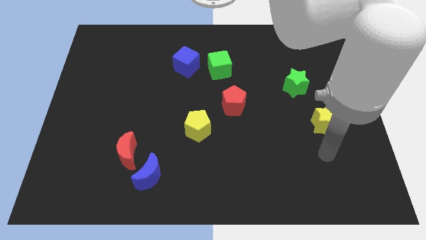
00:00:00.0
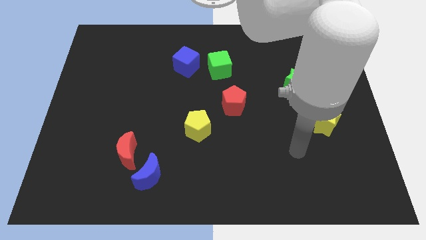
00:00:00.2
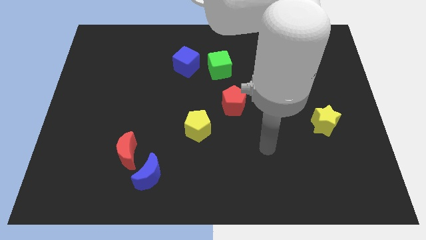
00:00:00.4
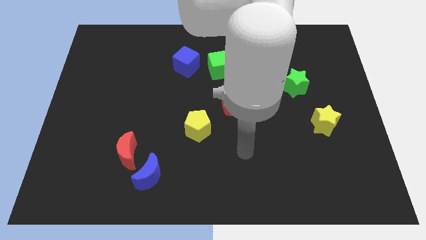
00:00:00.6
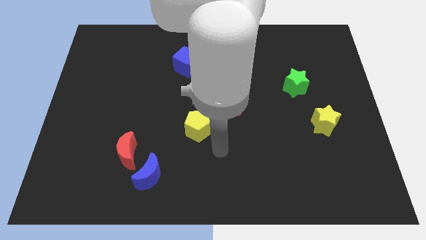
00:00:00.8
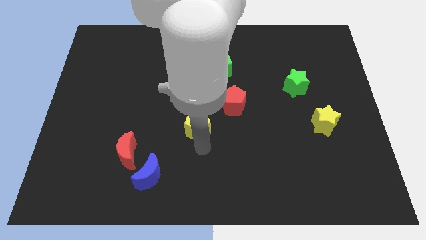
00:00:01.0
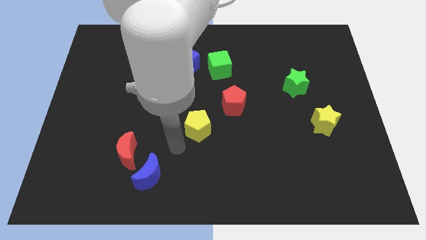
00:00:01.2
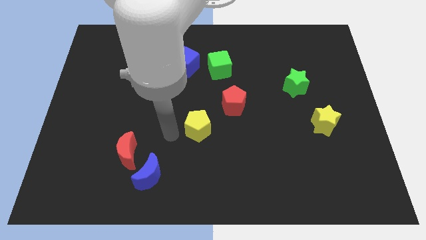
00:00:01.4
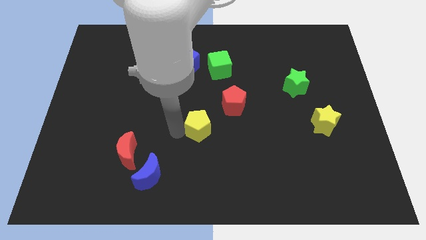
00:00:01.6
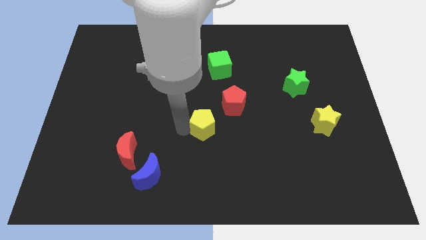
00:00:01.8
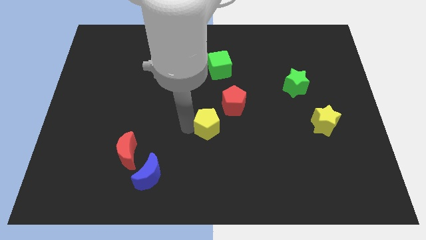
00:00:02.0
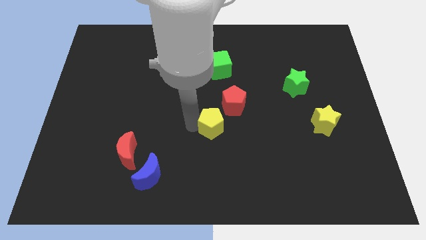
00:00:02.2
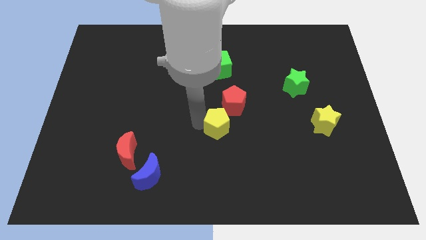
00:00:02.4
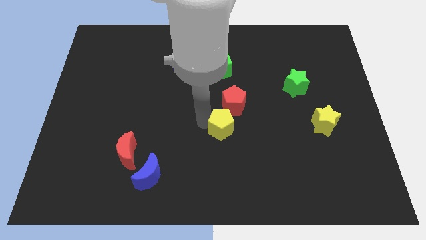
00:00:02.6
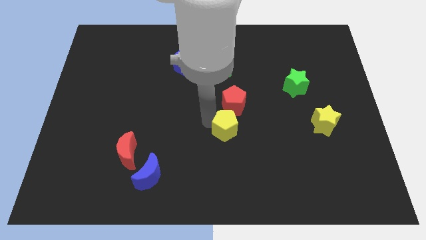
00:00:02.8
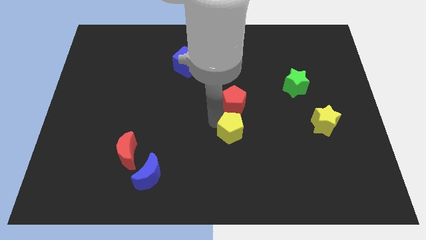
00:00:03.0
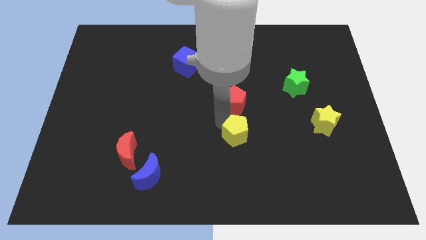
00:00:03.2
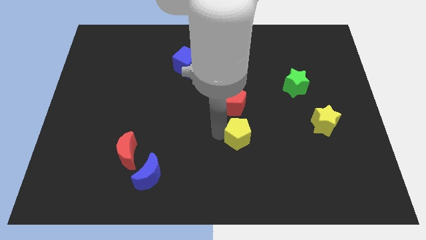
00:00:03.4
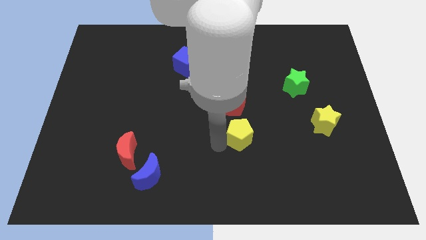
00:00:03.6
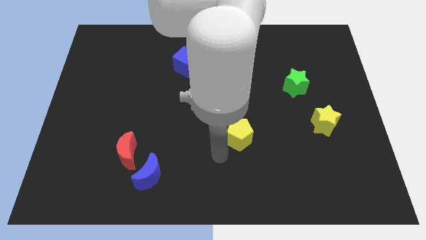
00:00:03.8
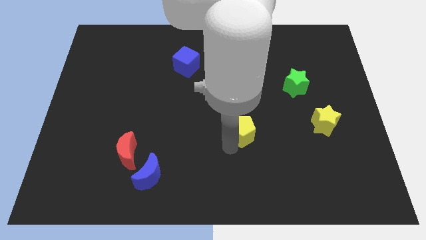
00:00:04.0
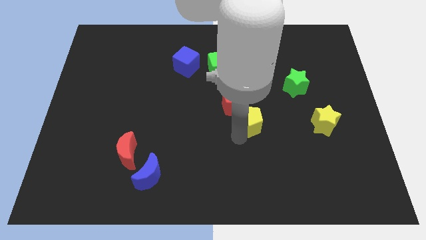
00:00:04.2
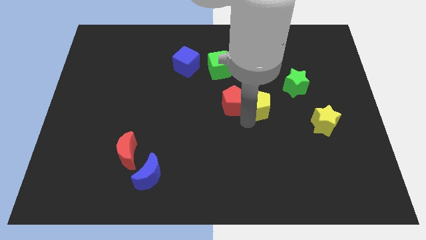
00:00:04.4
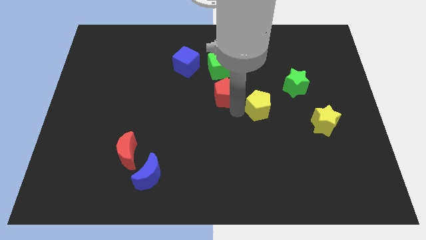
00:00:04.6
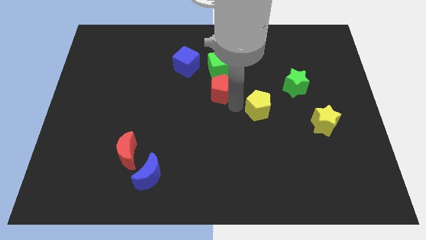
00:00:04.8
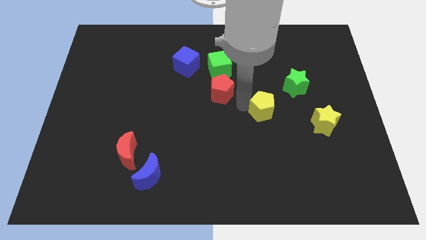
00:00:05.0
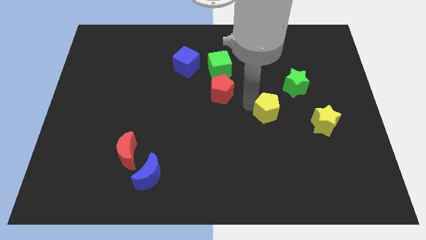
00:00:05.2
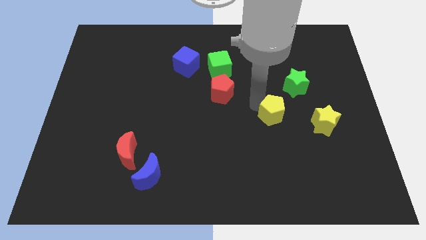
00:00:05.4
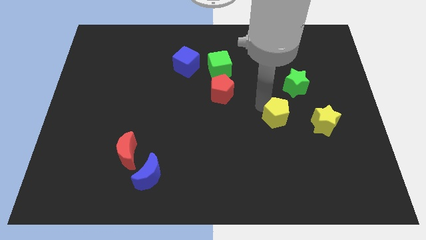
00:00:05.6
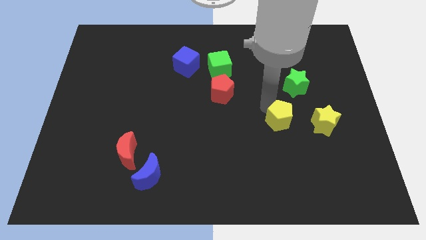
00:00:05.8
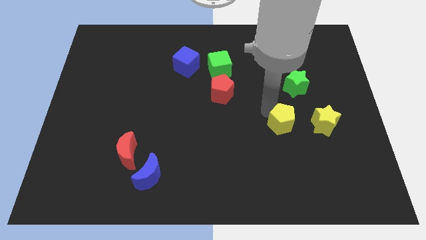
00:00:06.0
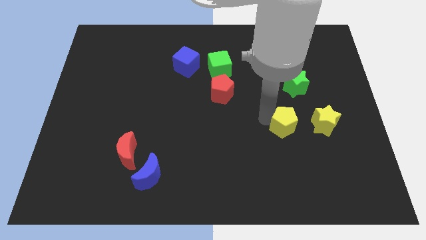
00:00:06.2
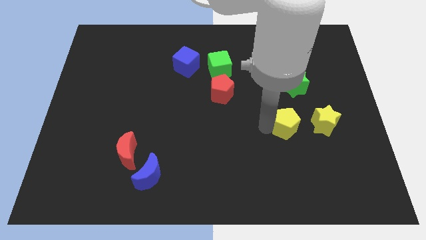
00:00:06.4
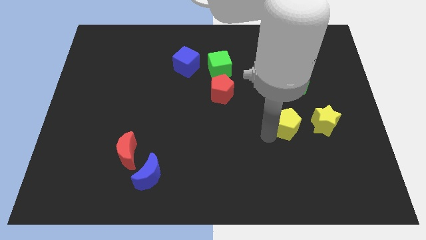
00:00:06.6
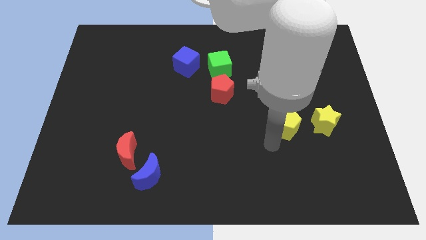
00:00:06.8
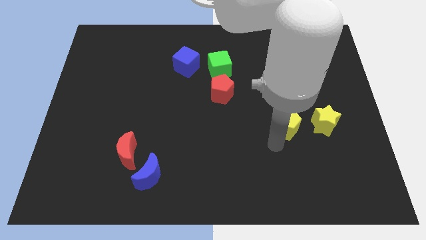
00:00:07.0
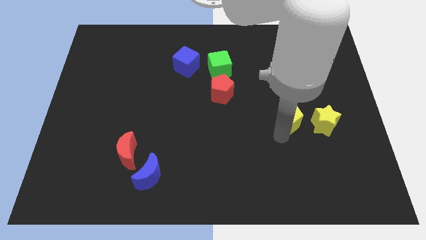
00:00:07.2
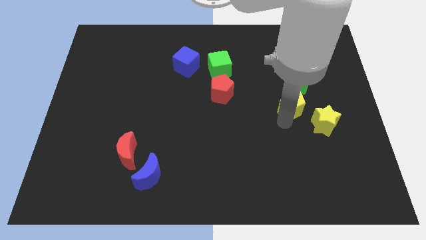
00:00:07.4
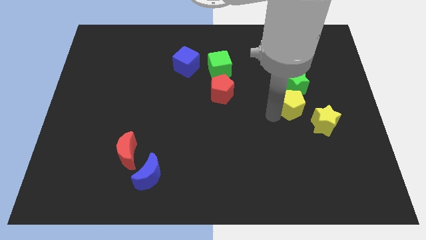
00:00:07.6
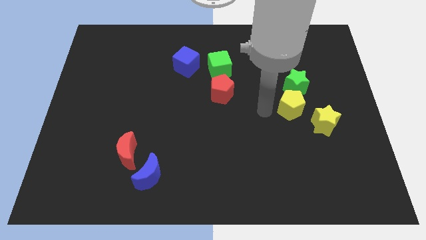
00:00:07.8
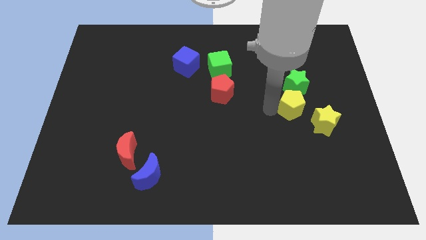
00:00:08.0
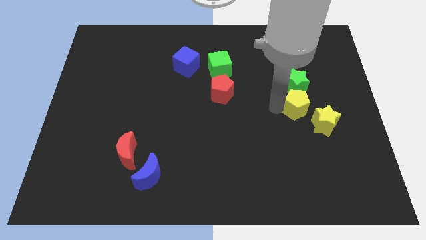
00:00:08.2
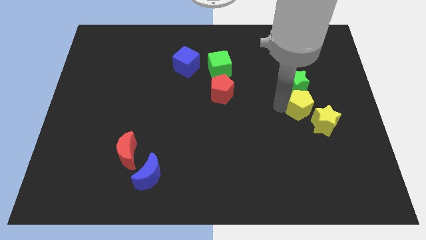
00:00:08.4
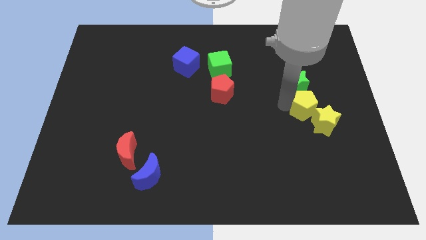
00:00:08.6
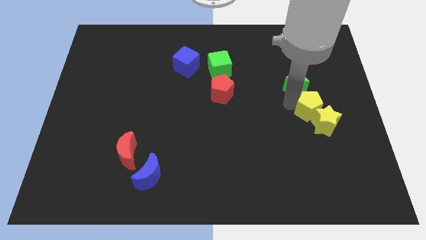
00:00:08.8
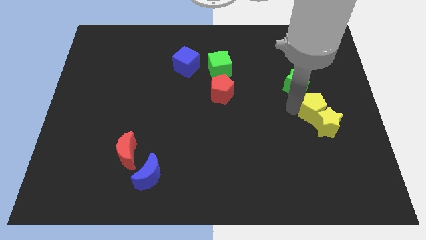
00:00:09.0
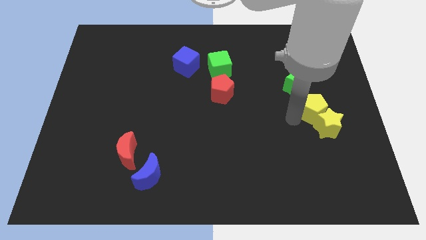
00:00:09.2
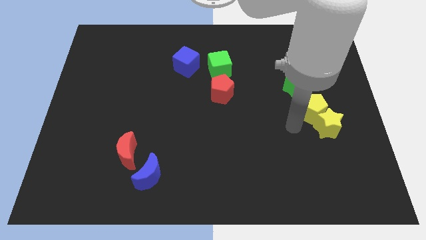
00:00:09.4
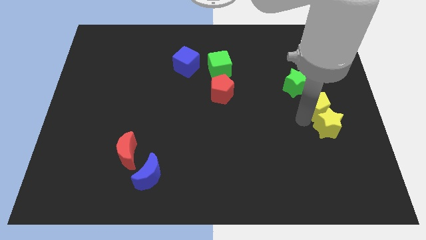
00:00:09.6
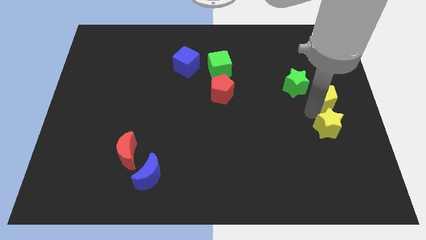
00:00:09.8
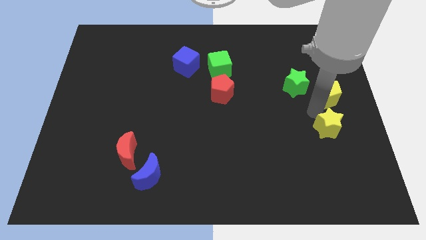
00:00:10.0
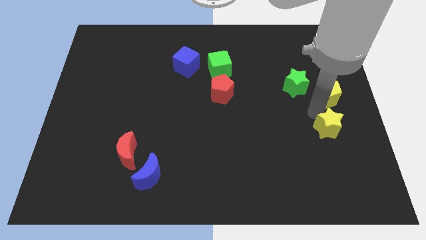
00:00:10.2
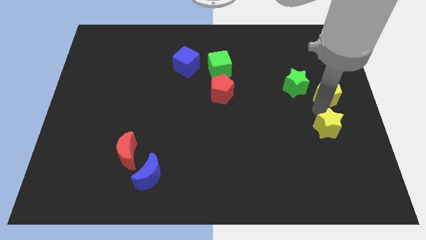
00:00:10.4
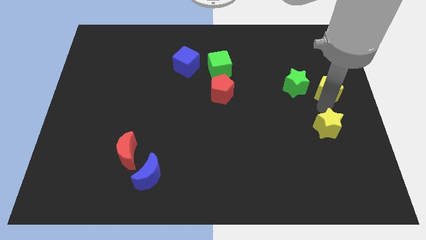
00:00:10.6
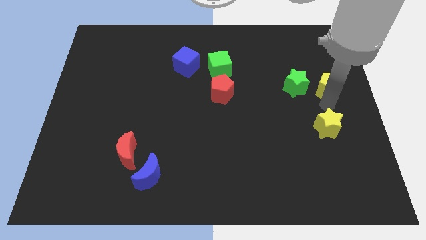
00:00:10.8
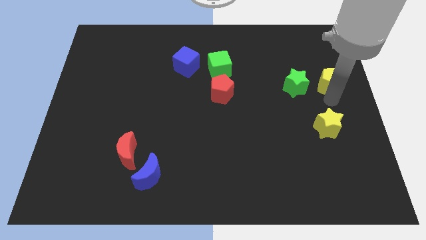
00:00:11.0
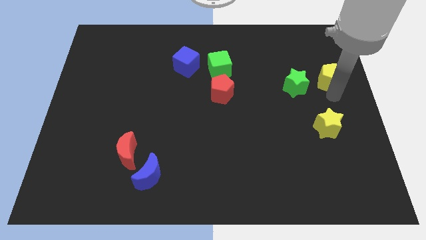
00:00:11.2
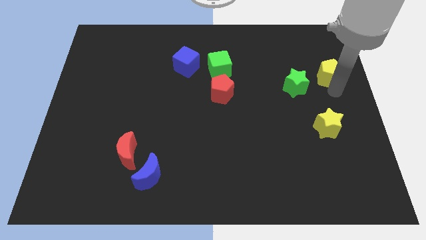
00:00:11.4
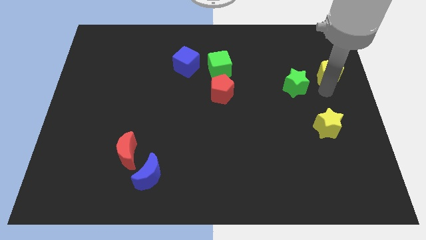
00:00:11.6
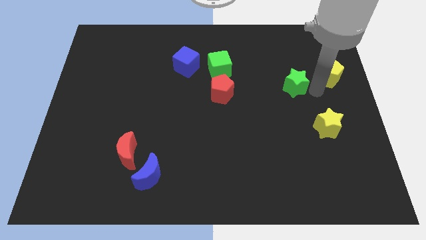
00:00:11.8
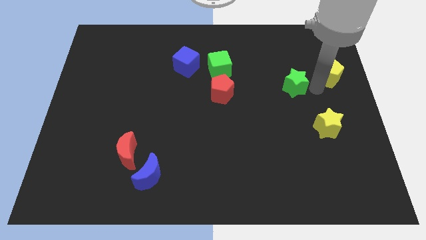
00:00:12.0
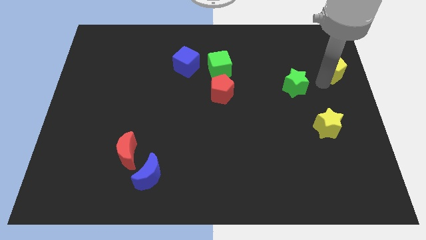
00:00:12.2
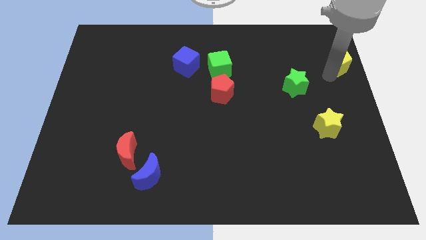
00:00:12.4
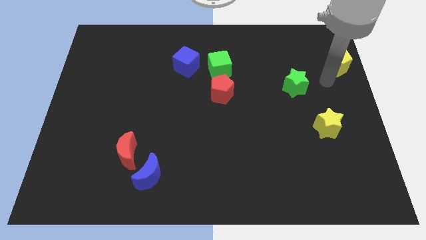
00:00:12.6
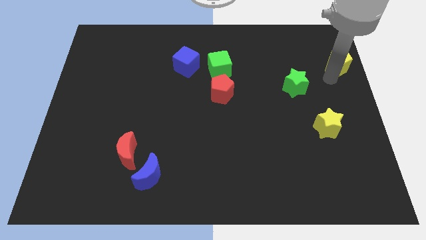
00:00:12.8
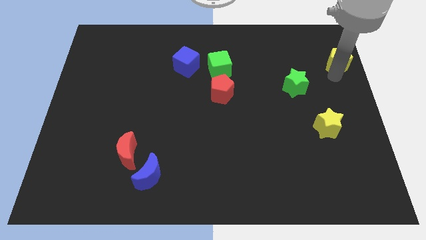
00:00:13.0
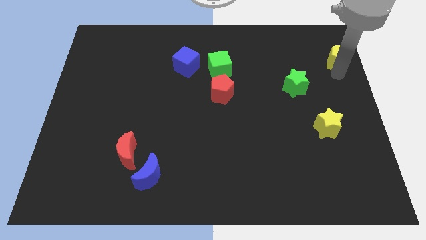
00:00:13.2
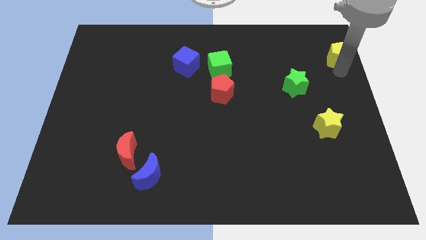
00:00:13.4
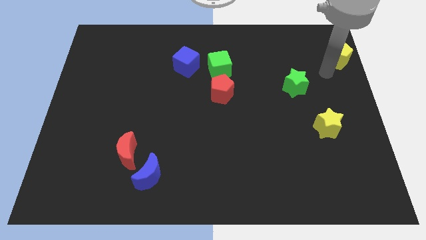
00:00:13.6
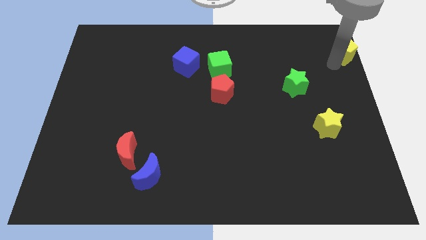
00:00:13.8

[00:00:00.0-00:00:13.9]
put the yellow pentagon to the upper right corner

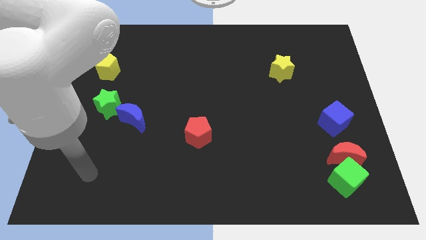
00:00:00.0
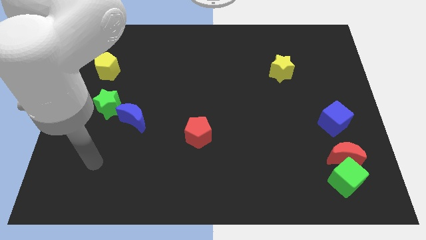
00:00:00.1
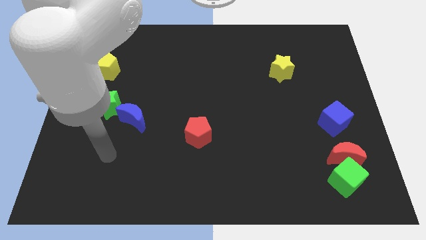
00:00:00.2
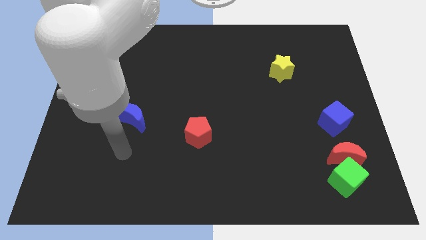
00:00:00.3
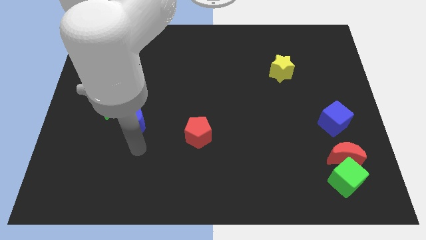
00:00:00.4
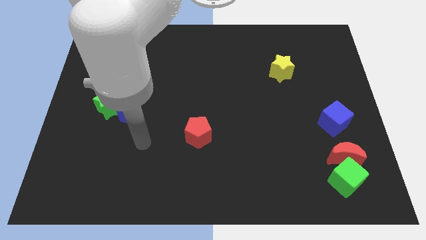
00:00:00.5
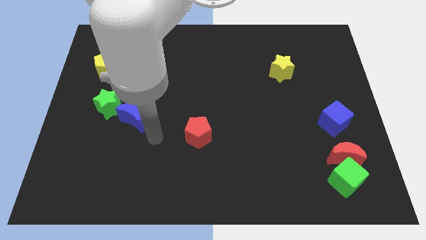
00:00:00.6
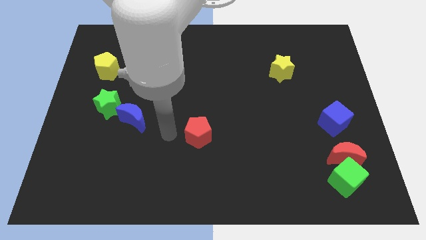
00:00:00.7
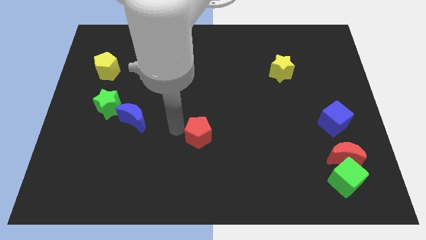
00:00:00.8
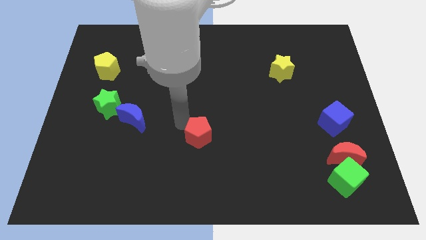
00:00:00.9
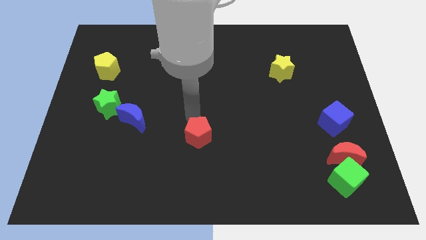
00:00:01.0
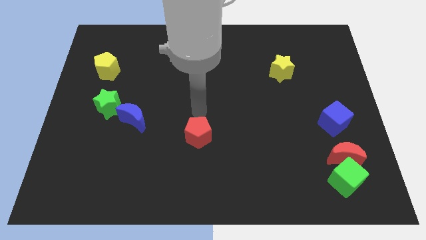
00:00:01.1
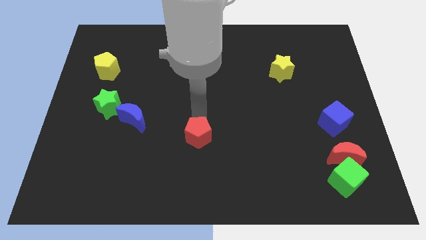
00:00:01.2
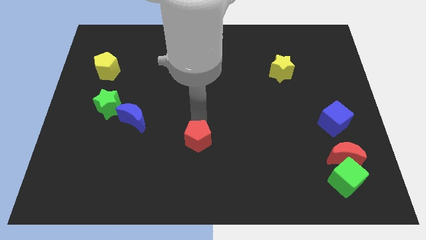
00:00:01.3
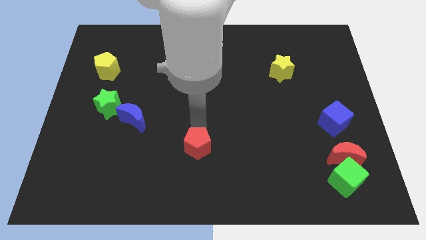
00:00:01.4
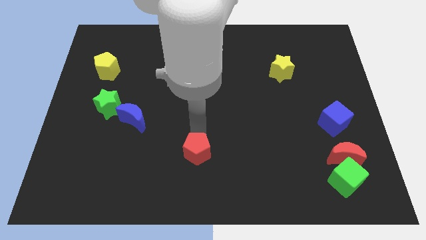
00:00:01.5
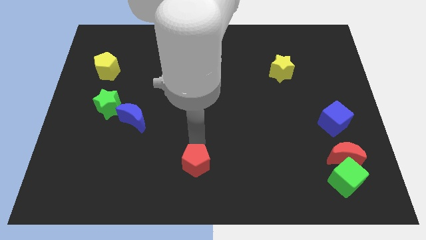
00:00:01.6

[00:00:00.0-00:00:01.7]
slide the red pentagon to the bottom side
